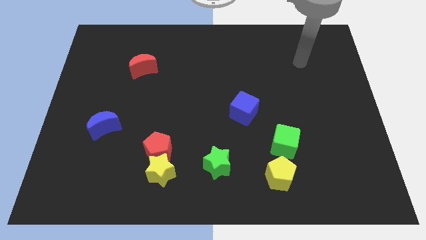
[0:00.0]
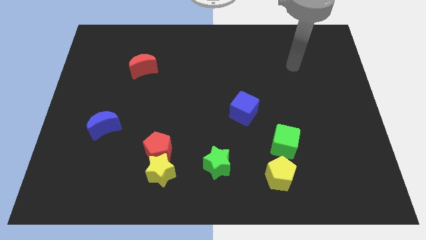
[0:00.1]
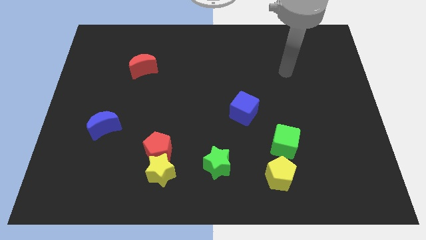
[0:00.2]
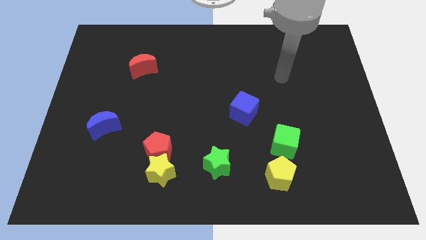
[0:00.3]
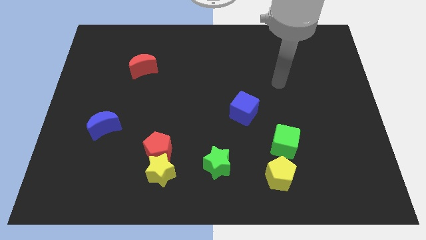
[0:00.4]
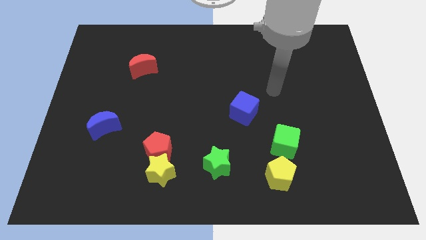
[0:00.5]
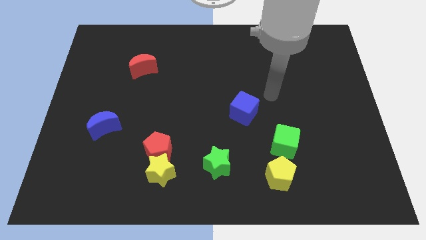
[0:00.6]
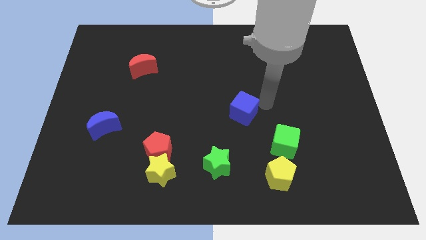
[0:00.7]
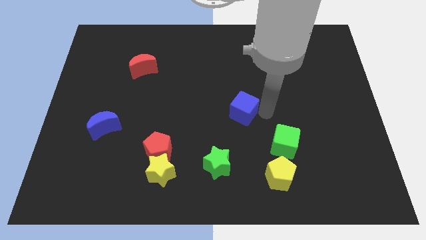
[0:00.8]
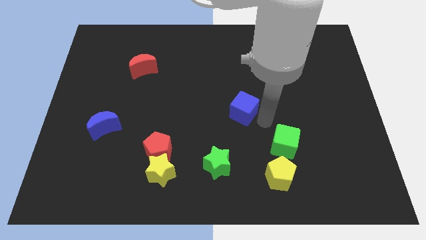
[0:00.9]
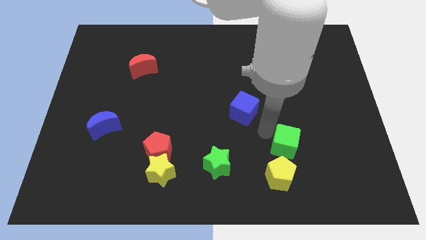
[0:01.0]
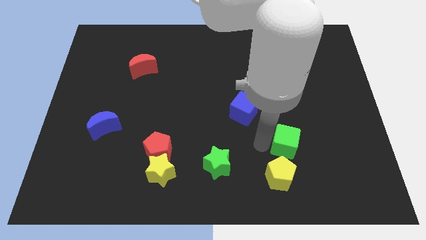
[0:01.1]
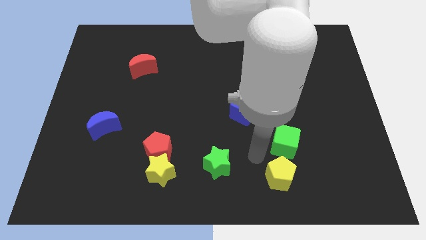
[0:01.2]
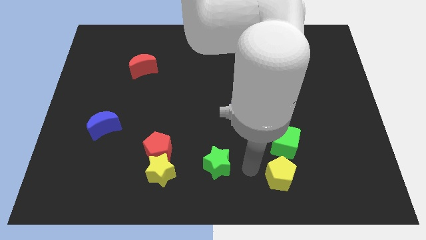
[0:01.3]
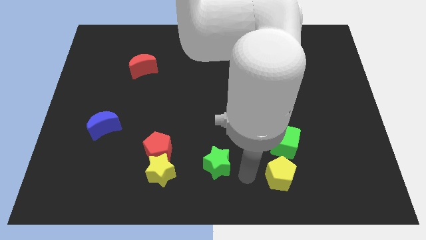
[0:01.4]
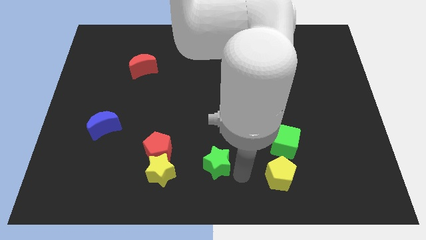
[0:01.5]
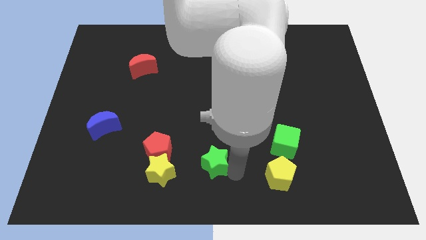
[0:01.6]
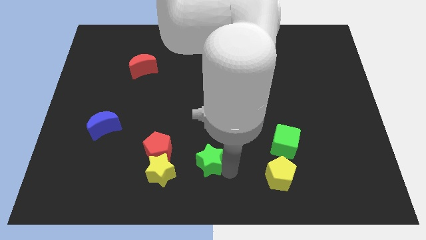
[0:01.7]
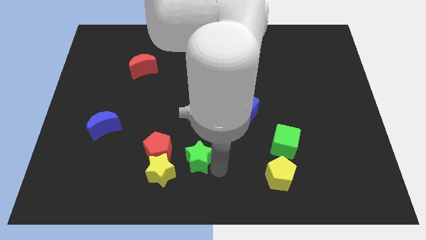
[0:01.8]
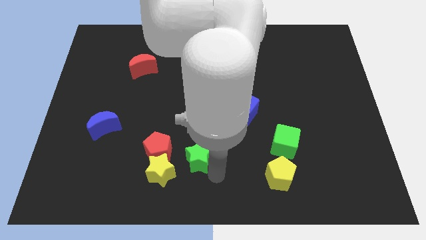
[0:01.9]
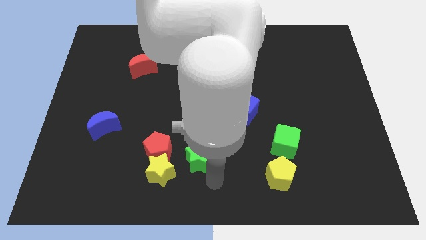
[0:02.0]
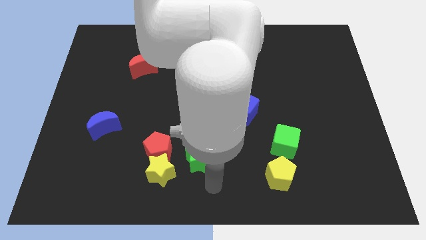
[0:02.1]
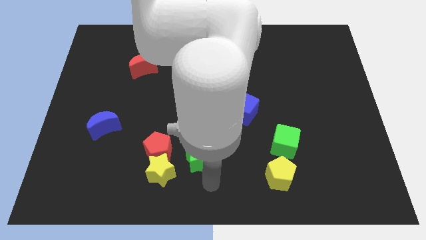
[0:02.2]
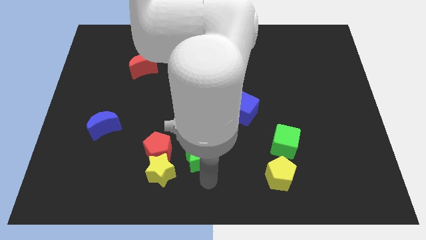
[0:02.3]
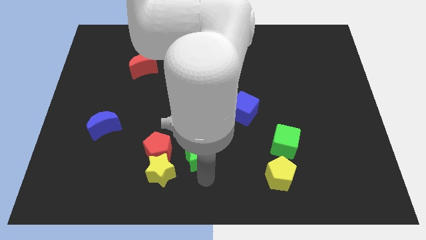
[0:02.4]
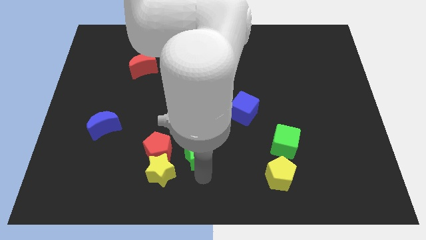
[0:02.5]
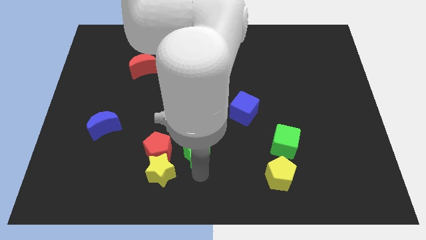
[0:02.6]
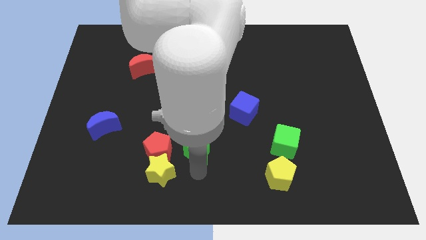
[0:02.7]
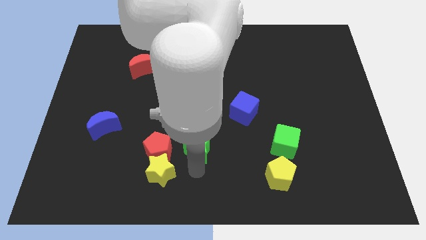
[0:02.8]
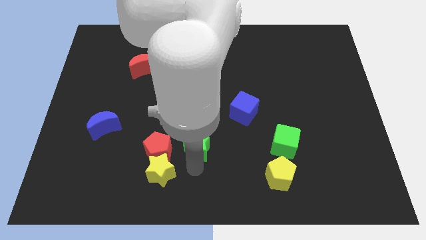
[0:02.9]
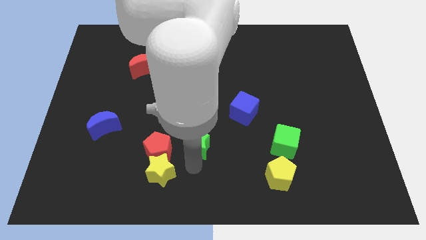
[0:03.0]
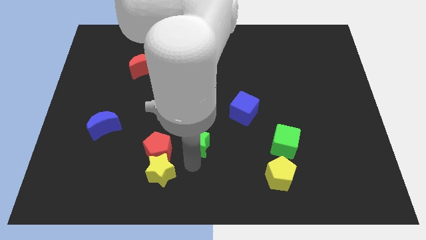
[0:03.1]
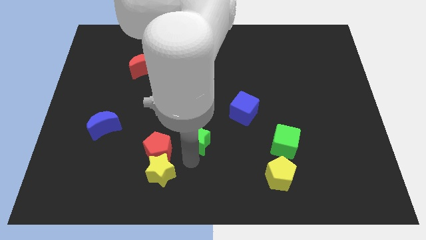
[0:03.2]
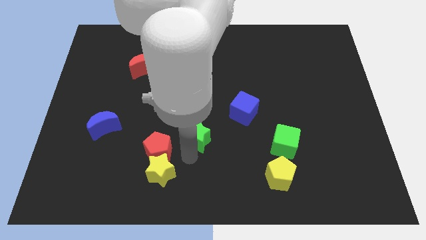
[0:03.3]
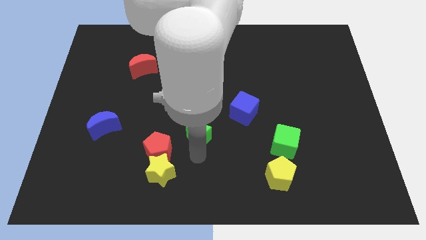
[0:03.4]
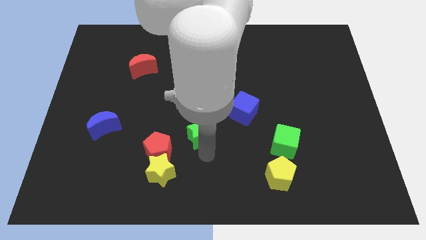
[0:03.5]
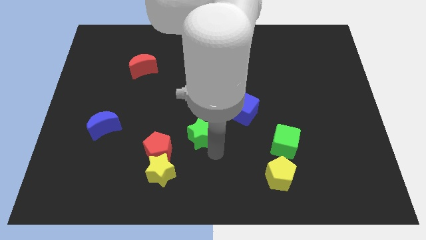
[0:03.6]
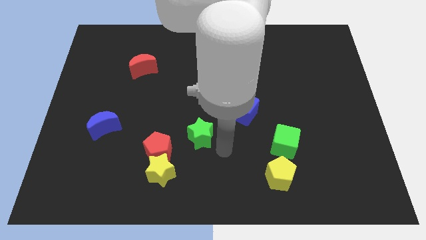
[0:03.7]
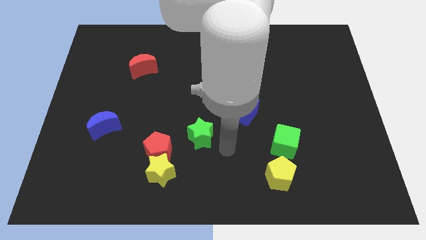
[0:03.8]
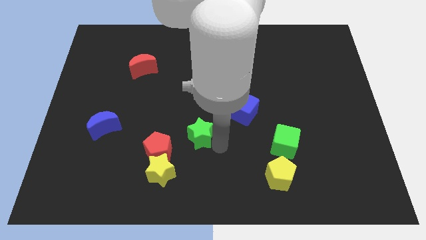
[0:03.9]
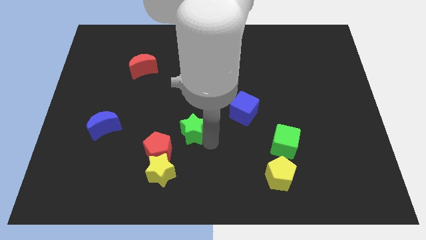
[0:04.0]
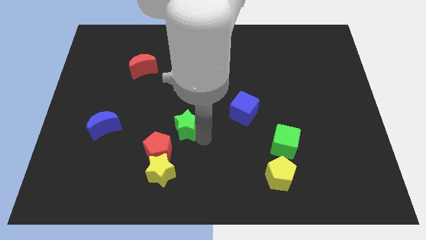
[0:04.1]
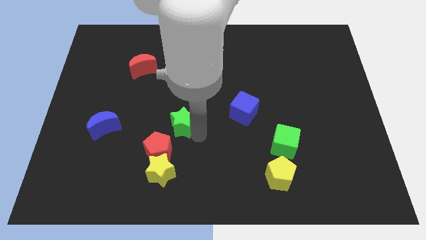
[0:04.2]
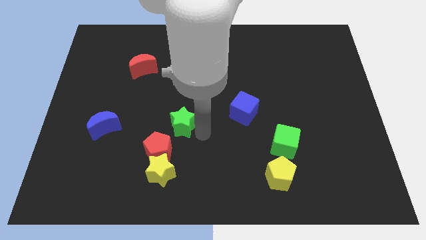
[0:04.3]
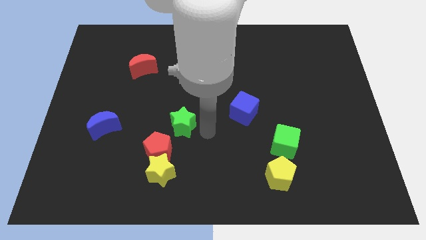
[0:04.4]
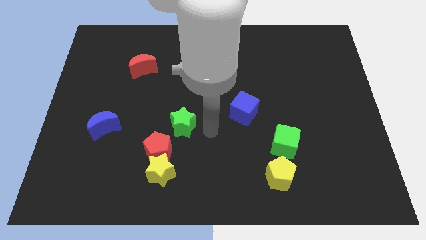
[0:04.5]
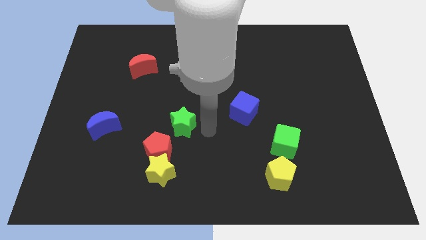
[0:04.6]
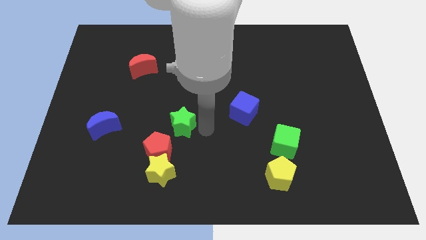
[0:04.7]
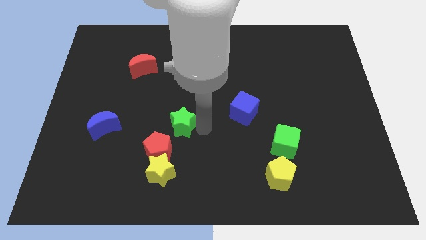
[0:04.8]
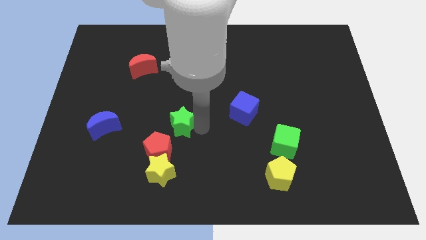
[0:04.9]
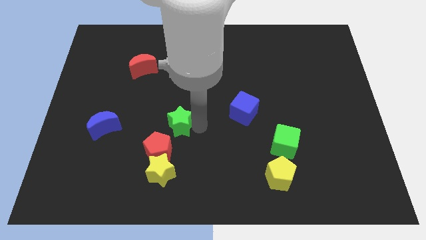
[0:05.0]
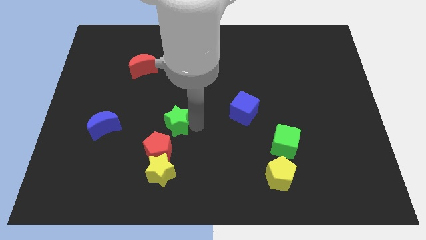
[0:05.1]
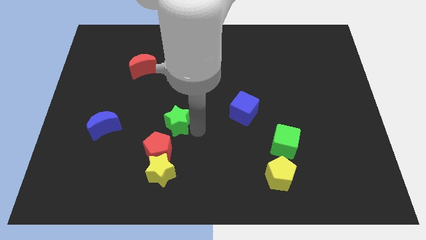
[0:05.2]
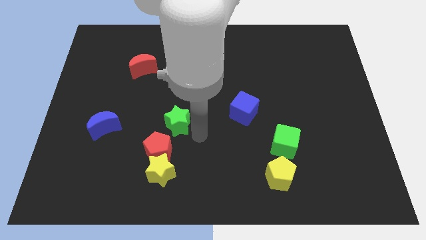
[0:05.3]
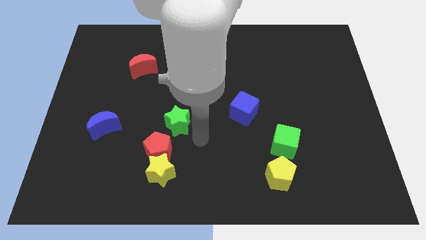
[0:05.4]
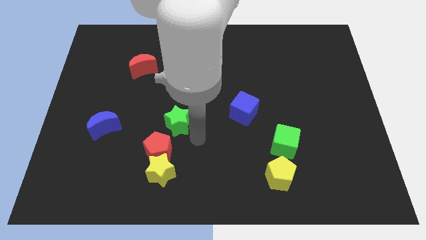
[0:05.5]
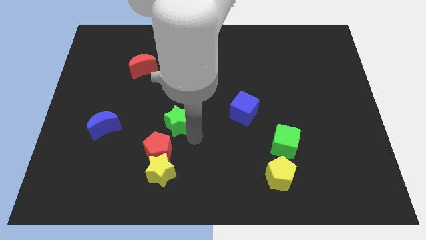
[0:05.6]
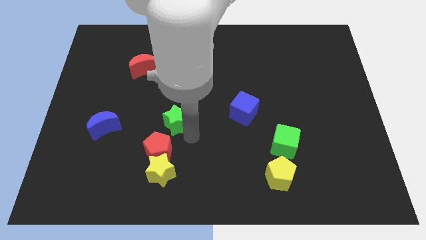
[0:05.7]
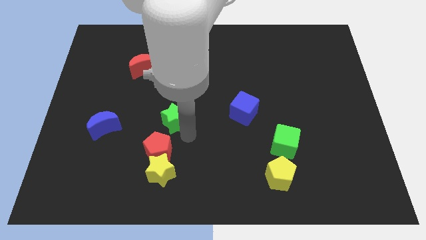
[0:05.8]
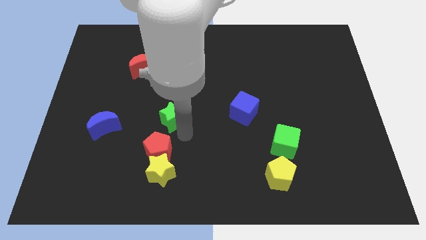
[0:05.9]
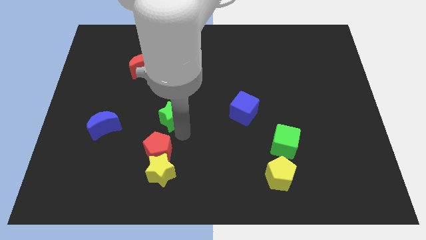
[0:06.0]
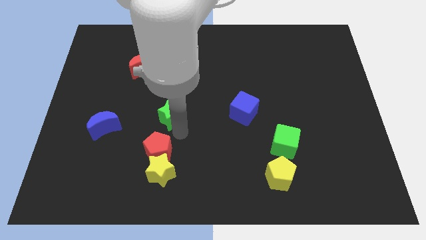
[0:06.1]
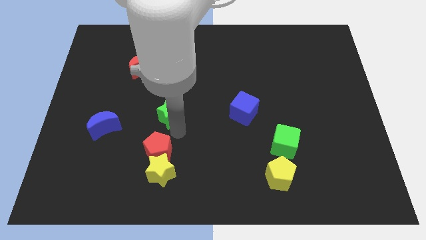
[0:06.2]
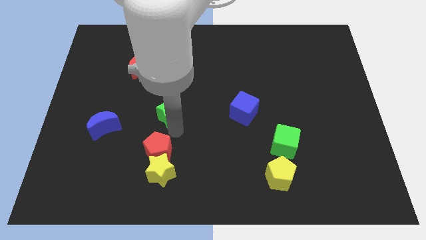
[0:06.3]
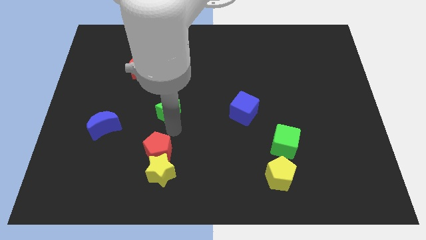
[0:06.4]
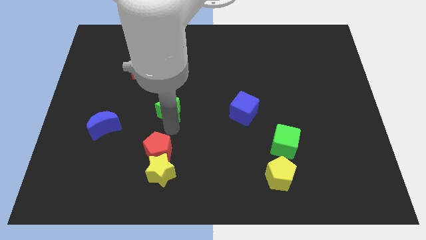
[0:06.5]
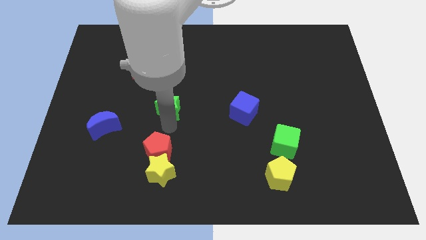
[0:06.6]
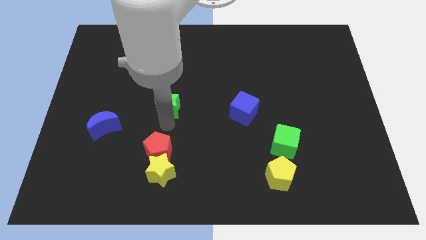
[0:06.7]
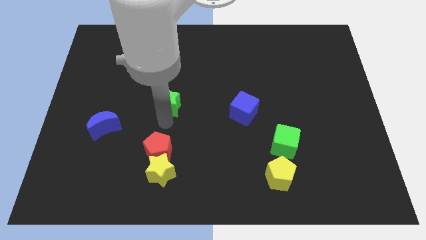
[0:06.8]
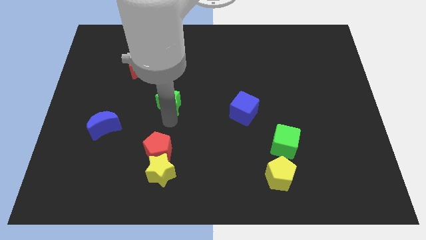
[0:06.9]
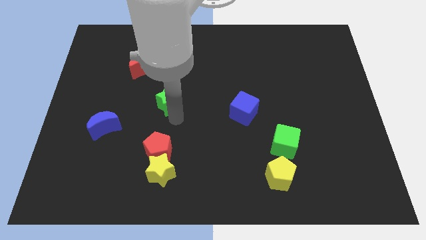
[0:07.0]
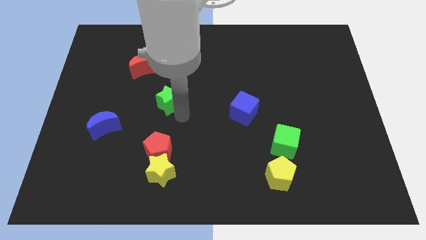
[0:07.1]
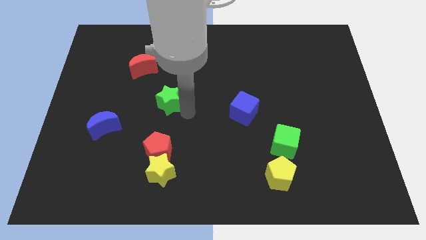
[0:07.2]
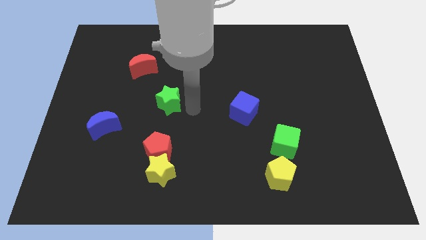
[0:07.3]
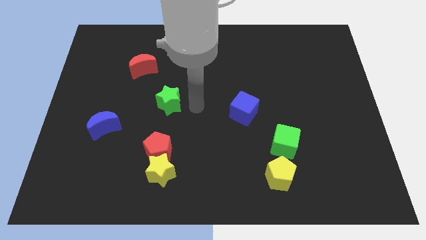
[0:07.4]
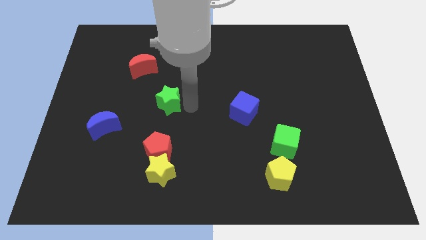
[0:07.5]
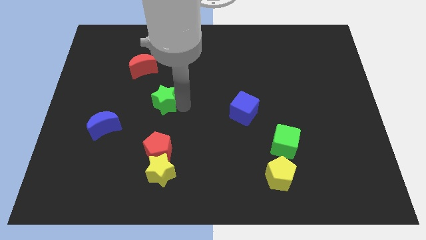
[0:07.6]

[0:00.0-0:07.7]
push the green star diagonally upwards and left

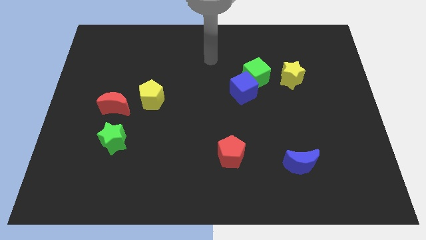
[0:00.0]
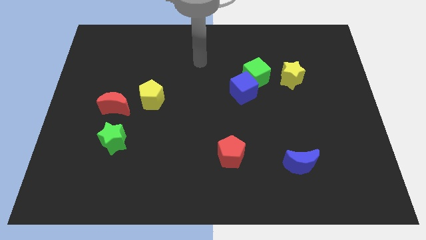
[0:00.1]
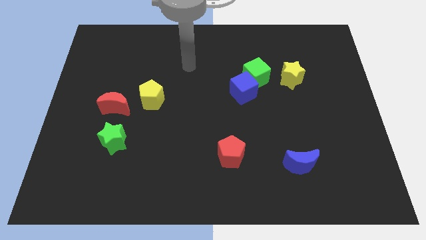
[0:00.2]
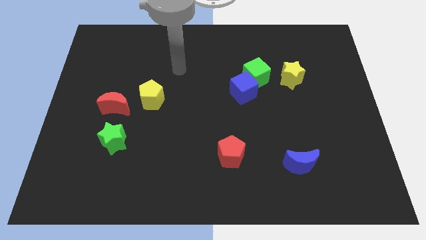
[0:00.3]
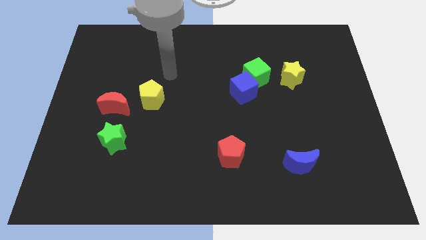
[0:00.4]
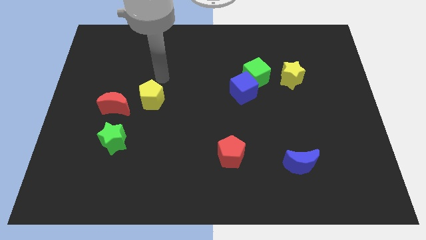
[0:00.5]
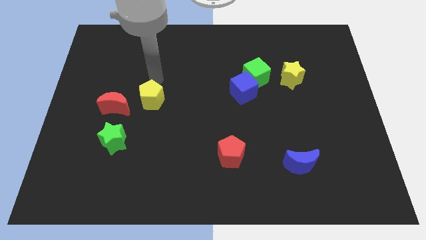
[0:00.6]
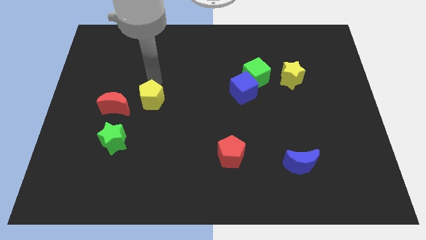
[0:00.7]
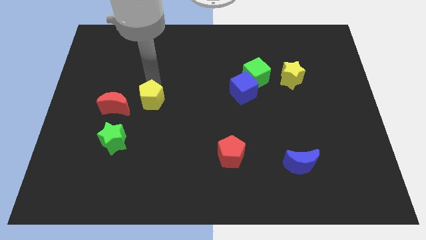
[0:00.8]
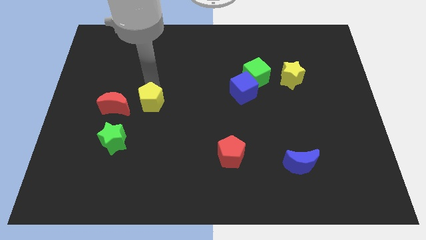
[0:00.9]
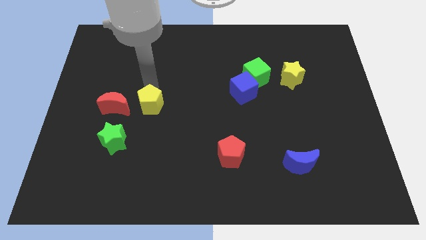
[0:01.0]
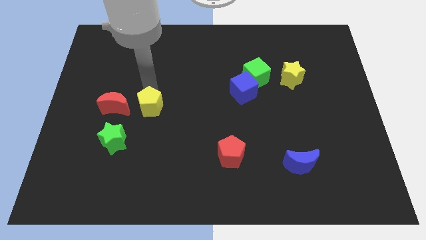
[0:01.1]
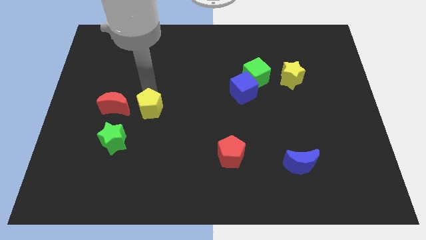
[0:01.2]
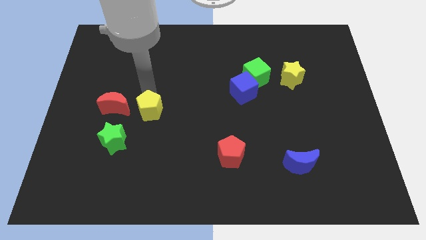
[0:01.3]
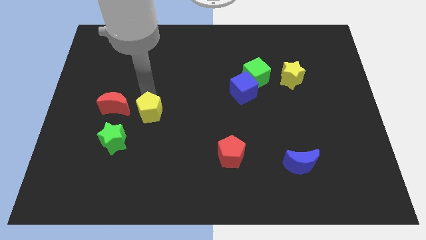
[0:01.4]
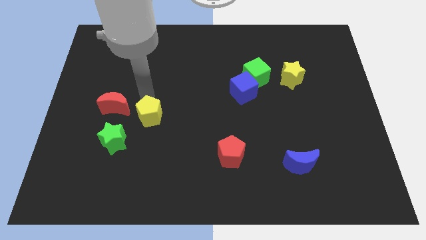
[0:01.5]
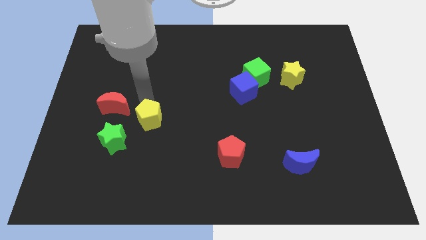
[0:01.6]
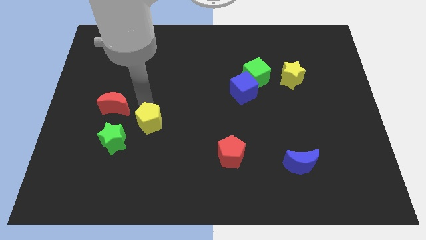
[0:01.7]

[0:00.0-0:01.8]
move the yellow pentagon a bit downwards
